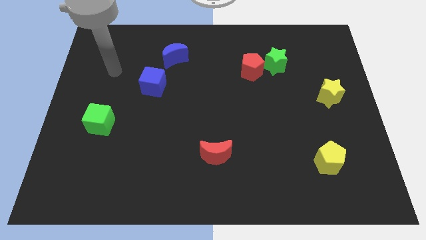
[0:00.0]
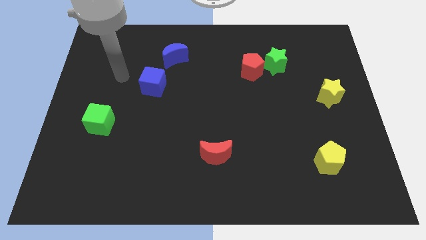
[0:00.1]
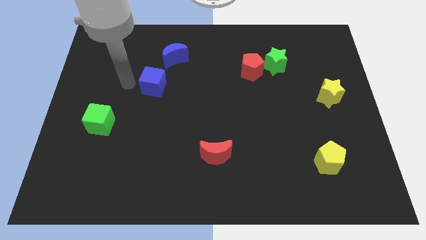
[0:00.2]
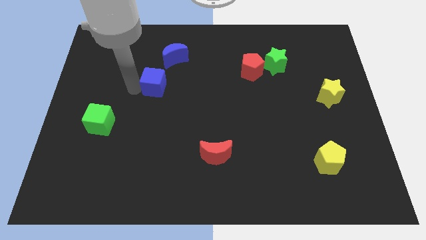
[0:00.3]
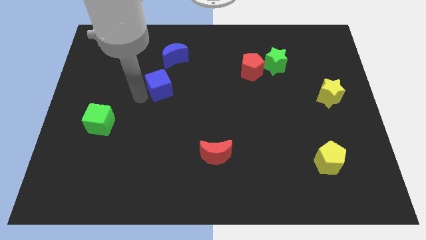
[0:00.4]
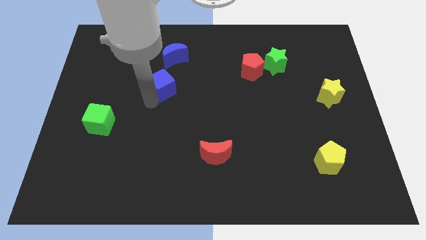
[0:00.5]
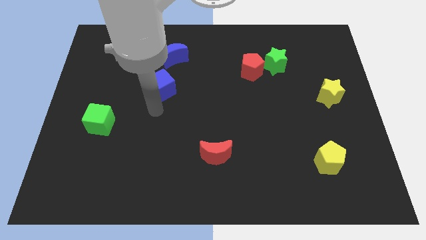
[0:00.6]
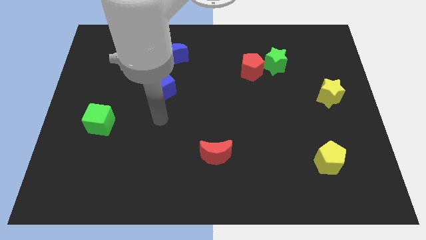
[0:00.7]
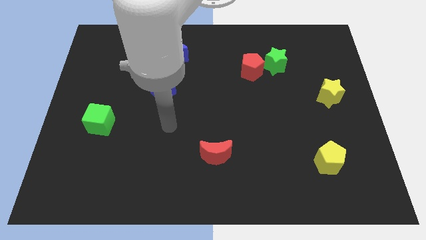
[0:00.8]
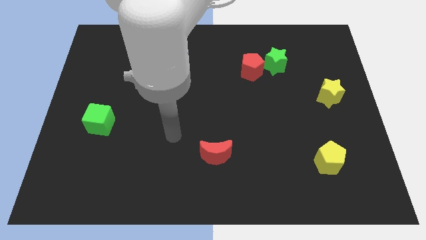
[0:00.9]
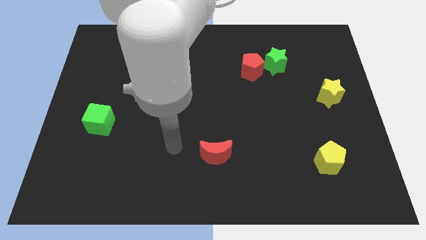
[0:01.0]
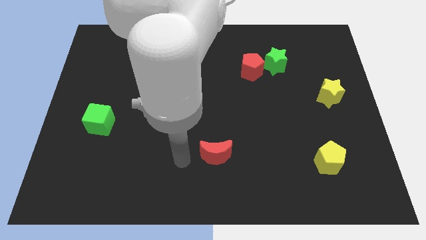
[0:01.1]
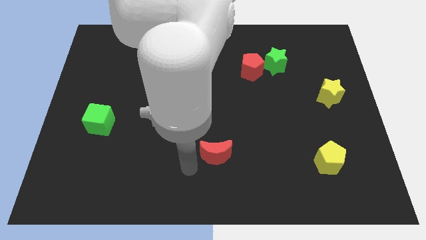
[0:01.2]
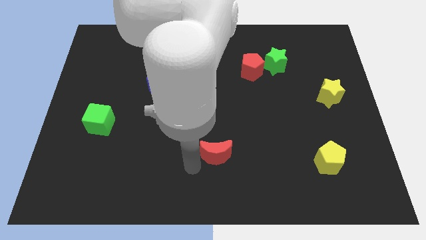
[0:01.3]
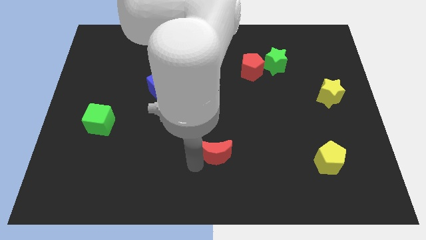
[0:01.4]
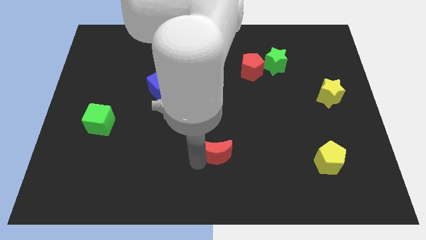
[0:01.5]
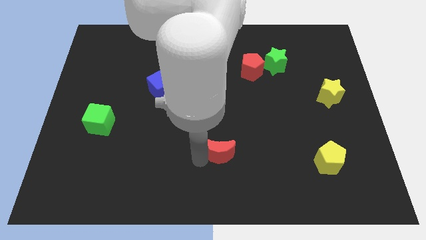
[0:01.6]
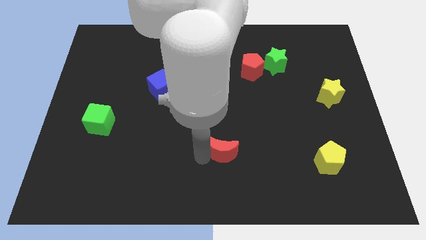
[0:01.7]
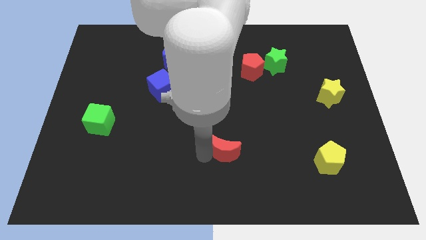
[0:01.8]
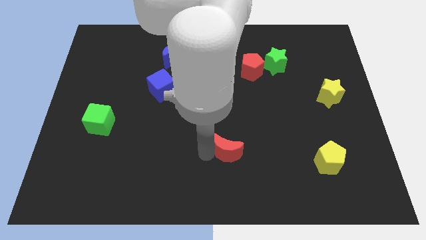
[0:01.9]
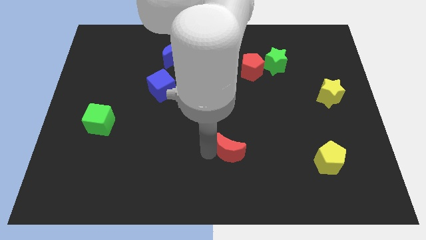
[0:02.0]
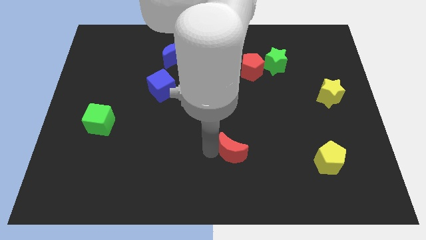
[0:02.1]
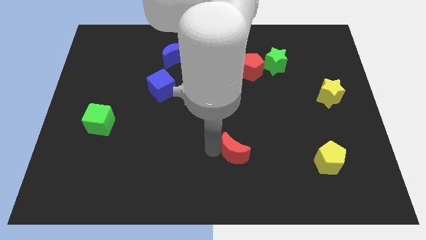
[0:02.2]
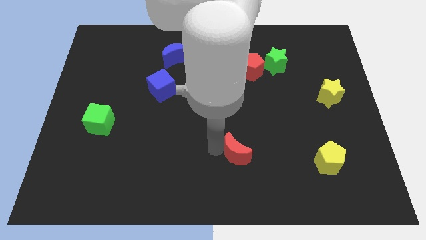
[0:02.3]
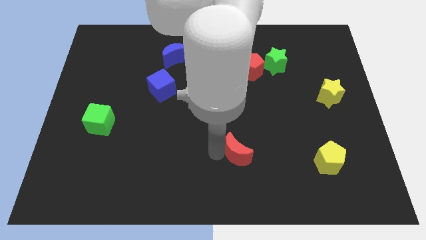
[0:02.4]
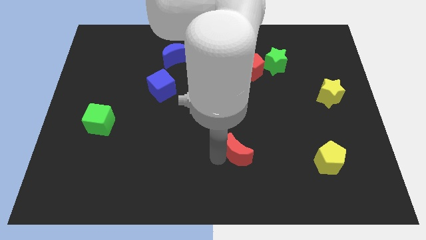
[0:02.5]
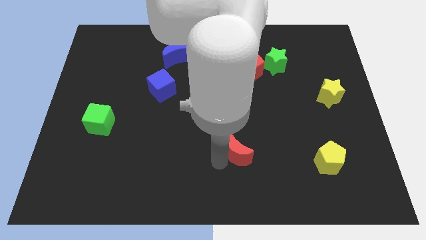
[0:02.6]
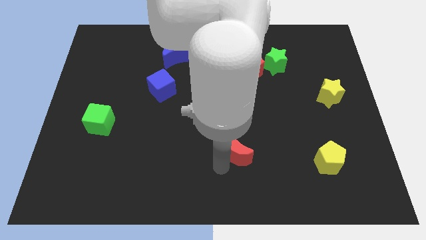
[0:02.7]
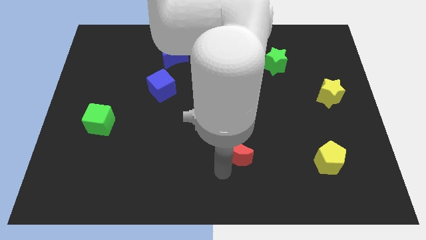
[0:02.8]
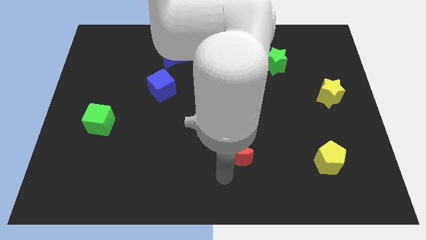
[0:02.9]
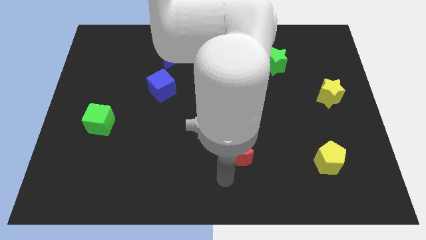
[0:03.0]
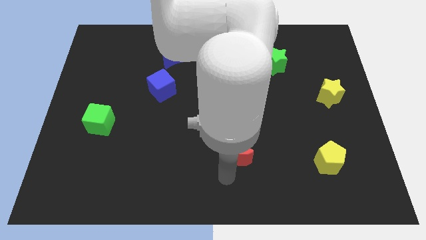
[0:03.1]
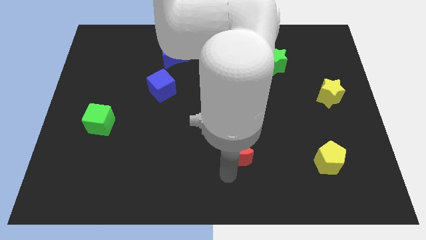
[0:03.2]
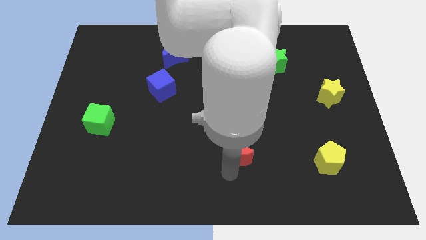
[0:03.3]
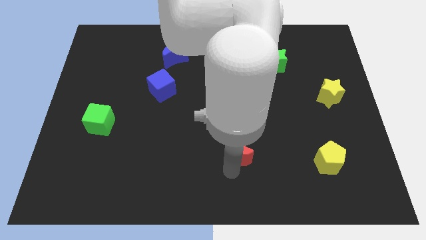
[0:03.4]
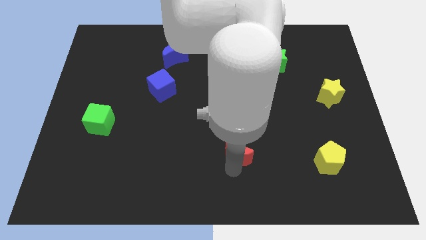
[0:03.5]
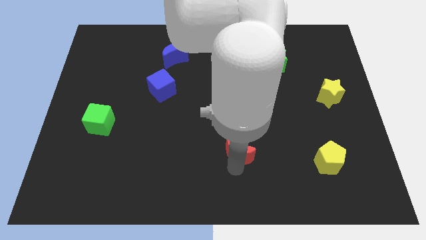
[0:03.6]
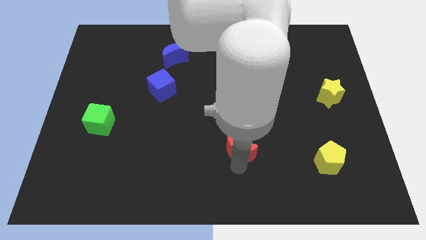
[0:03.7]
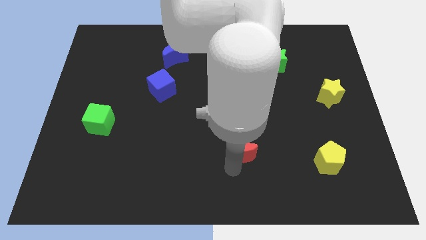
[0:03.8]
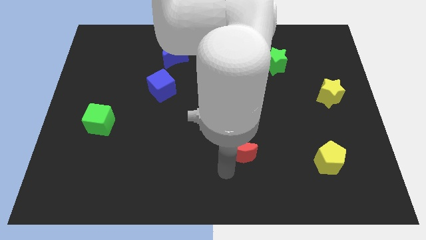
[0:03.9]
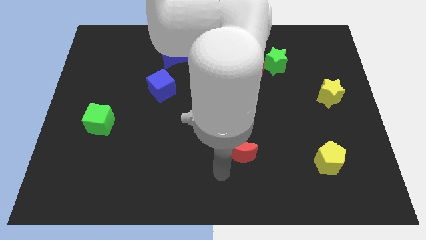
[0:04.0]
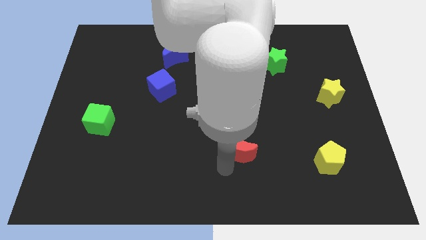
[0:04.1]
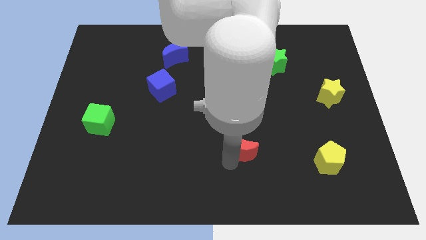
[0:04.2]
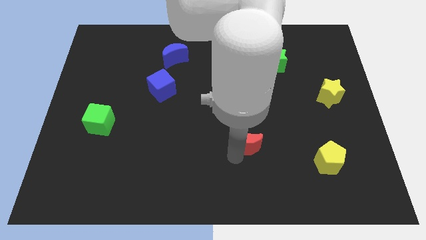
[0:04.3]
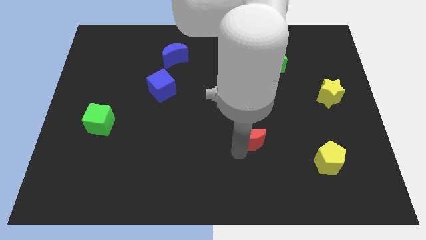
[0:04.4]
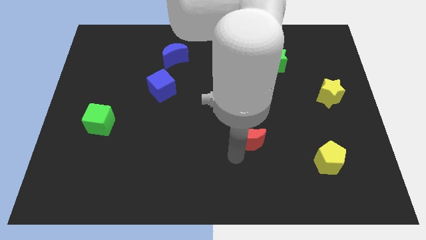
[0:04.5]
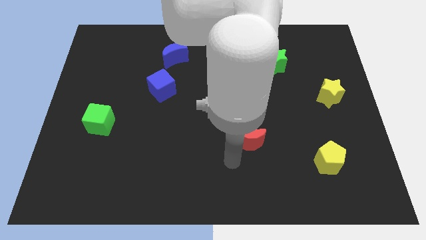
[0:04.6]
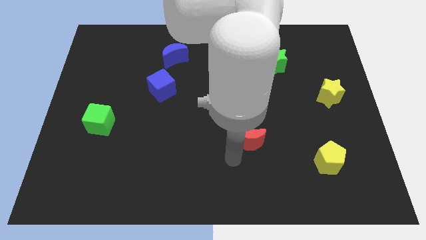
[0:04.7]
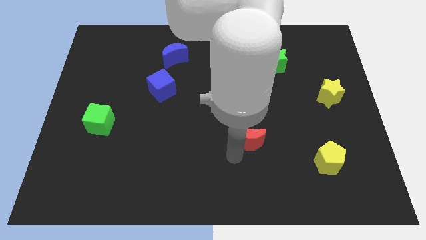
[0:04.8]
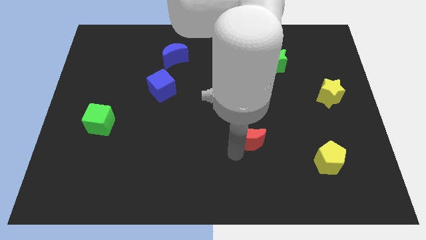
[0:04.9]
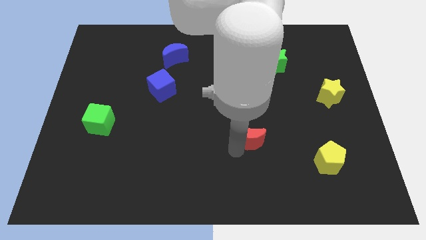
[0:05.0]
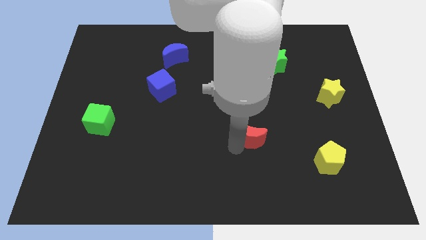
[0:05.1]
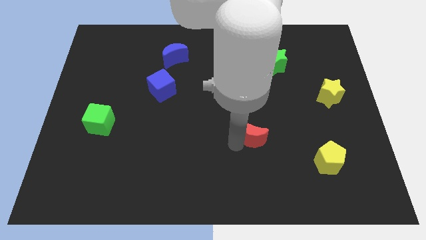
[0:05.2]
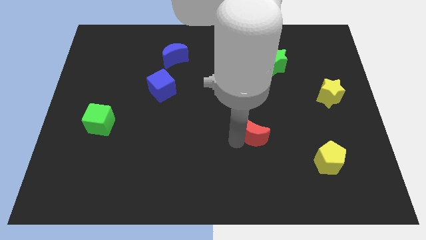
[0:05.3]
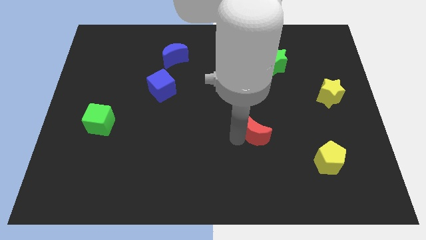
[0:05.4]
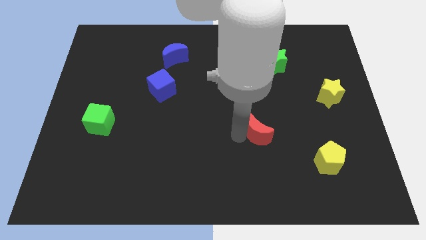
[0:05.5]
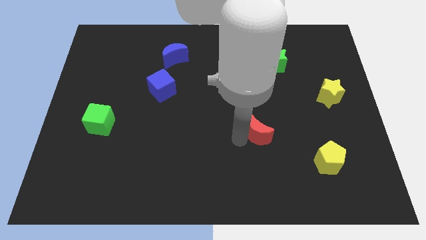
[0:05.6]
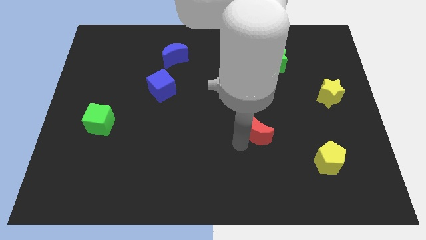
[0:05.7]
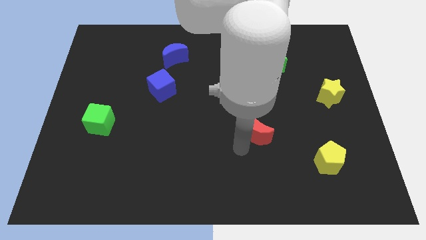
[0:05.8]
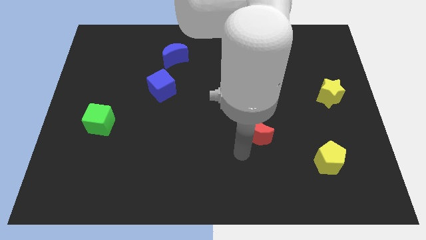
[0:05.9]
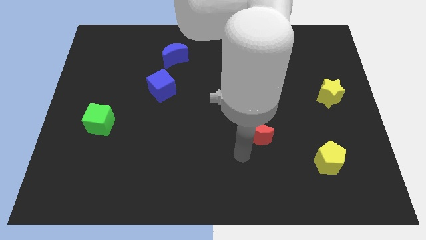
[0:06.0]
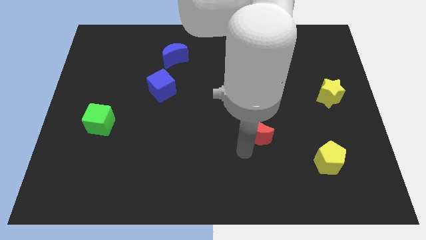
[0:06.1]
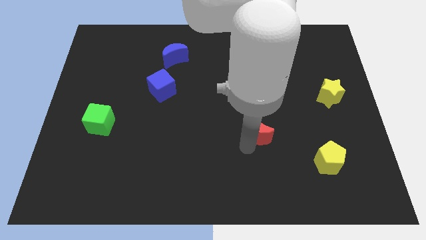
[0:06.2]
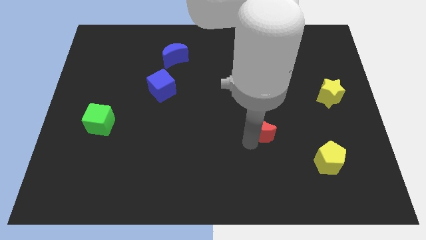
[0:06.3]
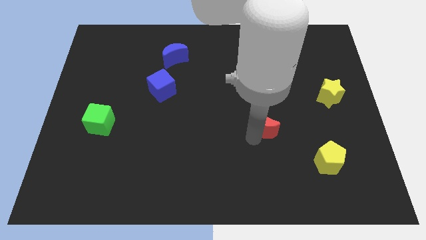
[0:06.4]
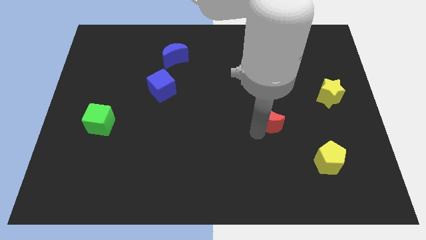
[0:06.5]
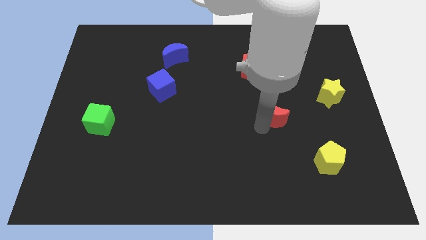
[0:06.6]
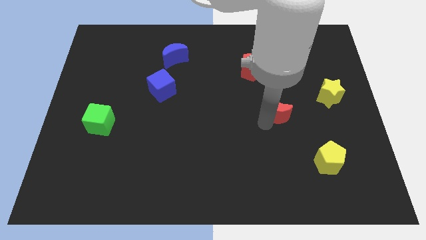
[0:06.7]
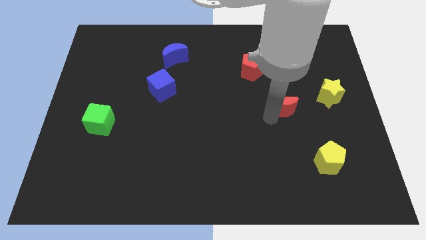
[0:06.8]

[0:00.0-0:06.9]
slide the red moon upwards and right

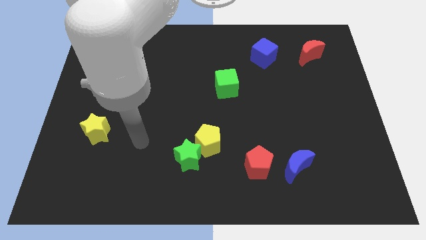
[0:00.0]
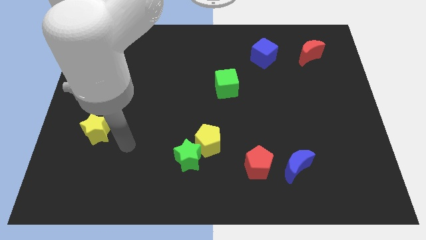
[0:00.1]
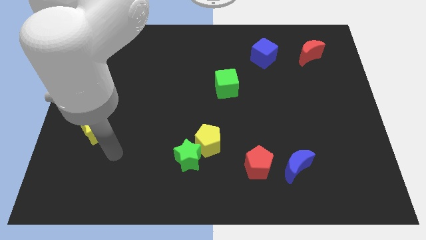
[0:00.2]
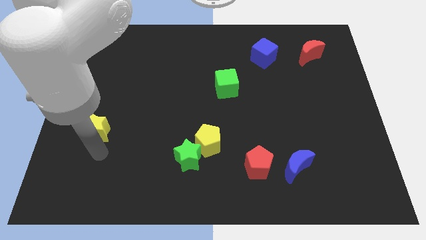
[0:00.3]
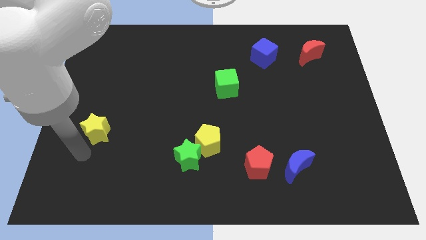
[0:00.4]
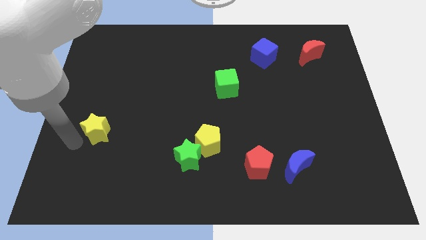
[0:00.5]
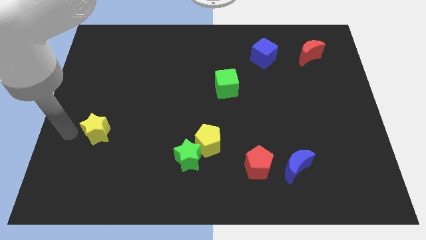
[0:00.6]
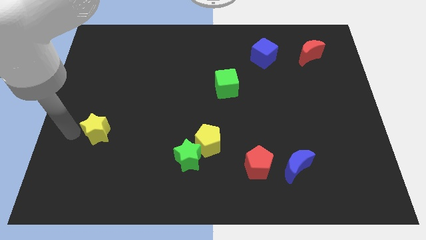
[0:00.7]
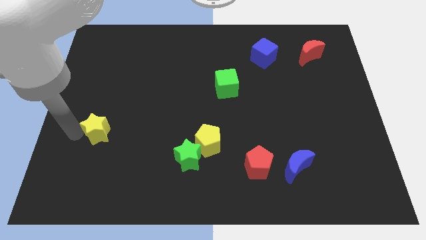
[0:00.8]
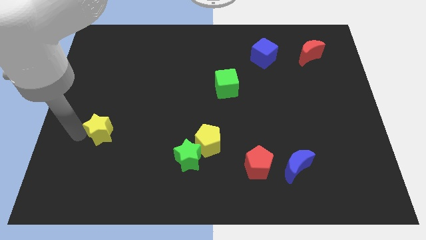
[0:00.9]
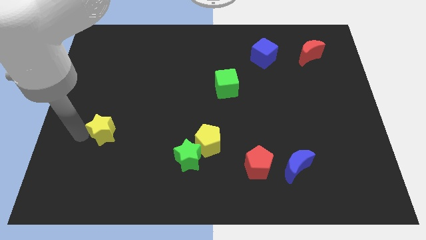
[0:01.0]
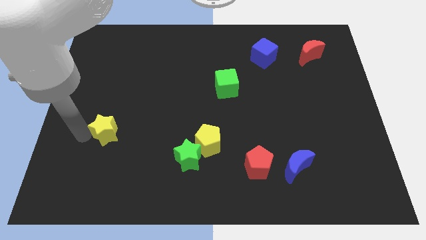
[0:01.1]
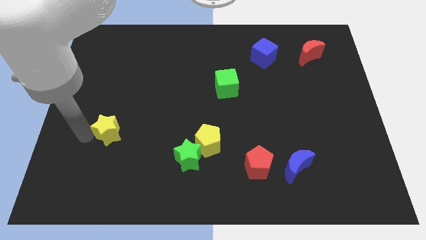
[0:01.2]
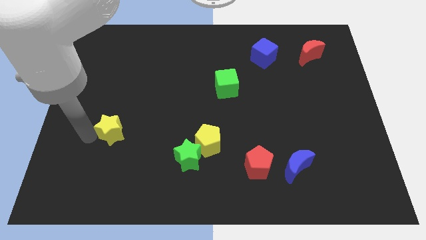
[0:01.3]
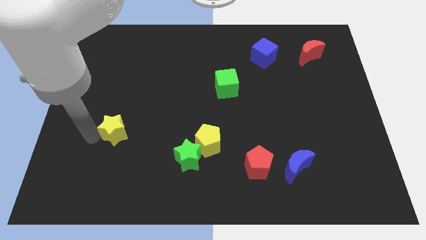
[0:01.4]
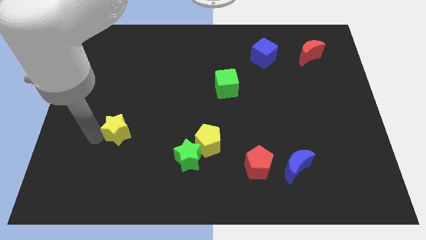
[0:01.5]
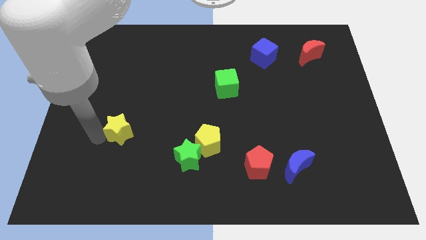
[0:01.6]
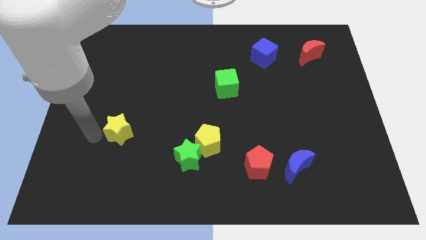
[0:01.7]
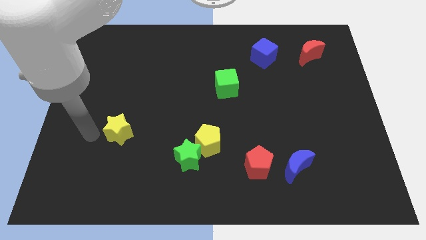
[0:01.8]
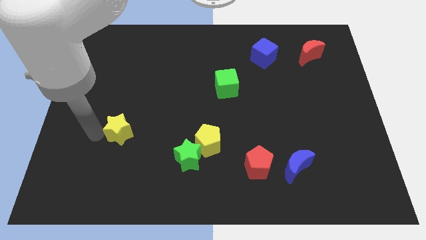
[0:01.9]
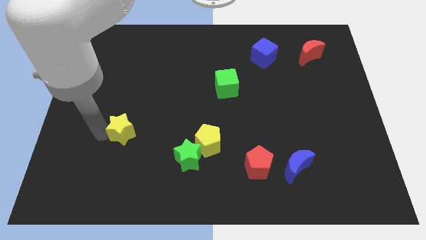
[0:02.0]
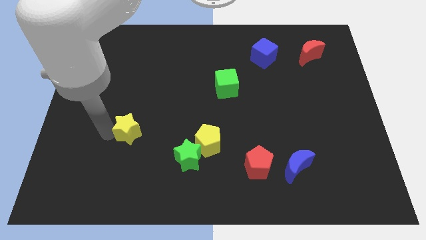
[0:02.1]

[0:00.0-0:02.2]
slightly move the yellow star right
